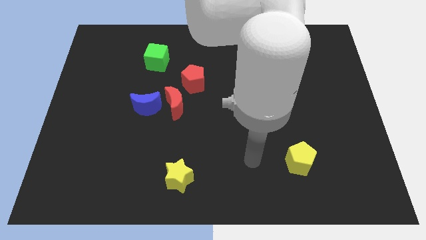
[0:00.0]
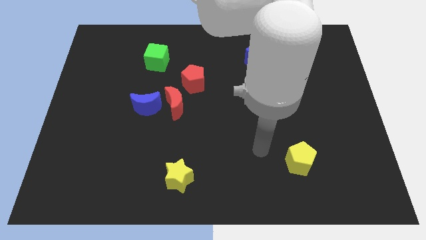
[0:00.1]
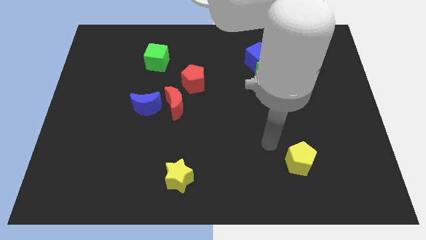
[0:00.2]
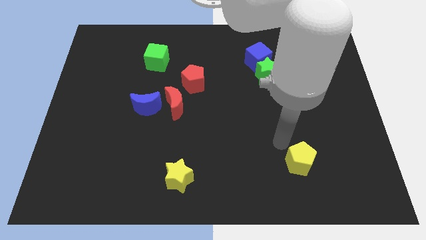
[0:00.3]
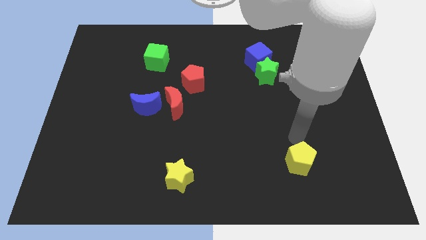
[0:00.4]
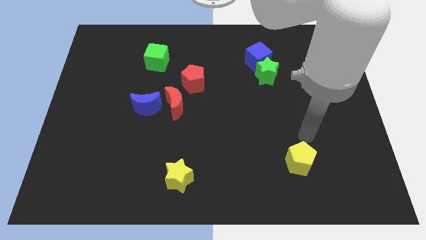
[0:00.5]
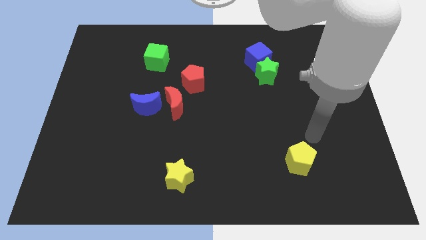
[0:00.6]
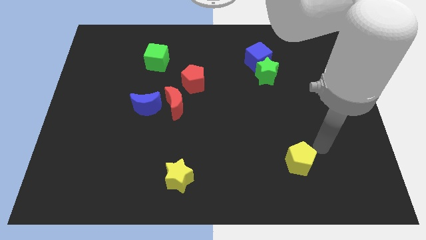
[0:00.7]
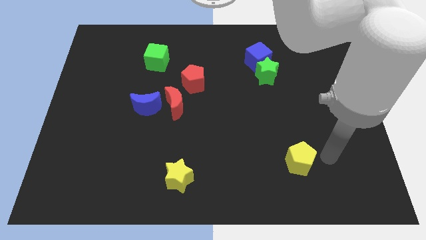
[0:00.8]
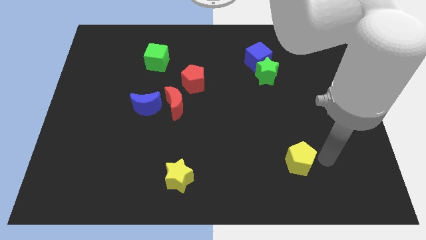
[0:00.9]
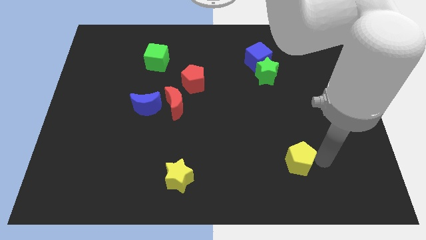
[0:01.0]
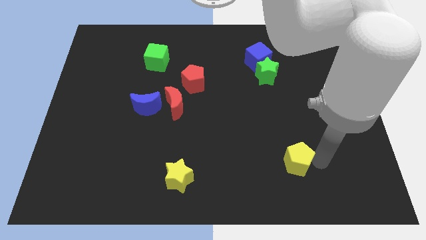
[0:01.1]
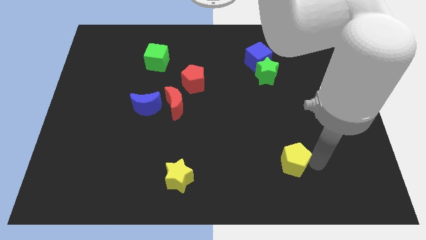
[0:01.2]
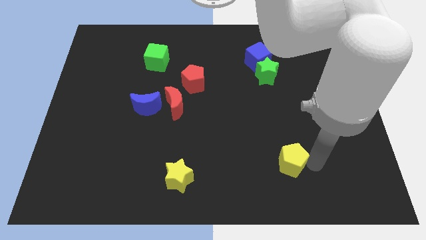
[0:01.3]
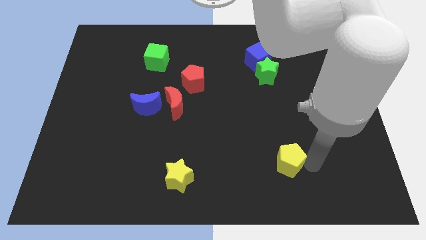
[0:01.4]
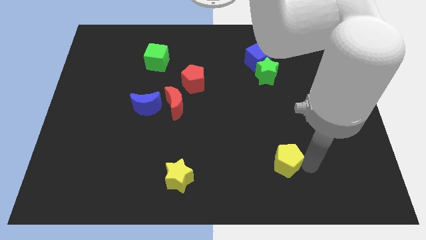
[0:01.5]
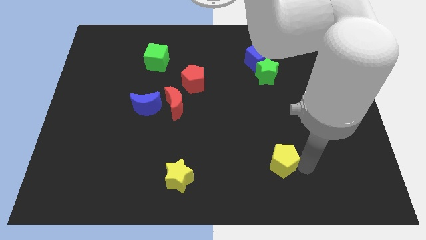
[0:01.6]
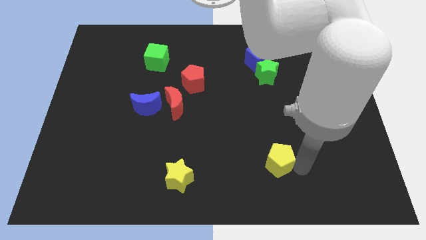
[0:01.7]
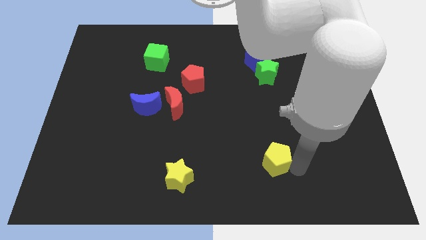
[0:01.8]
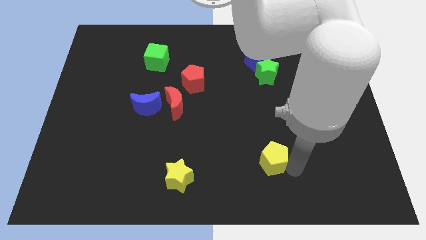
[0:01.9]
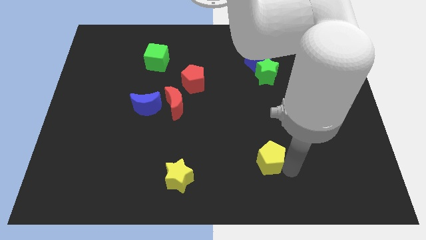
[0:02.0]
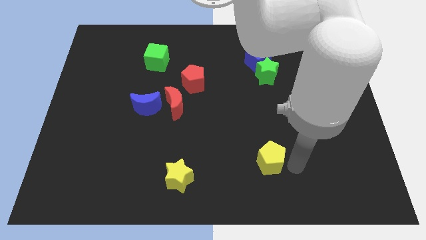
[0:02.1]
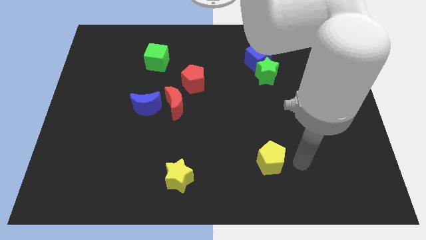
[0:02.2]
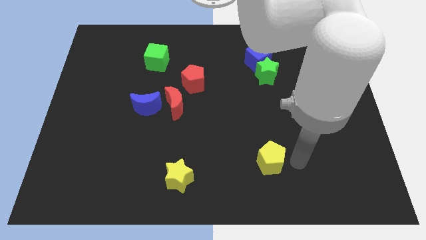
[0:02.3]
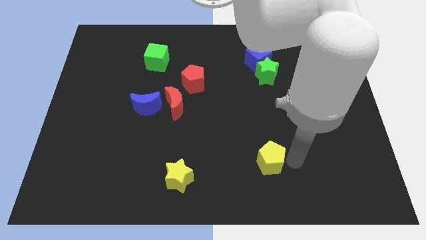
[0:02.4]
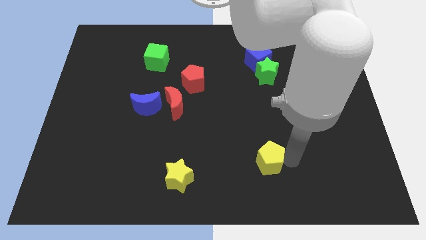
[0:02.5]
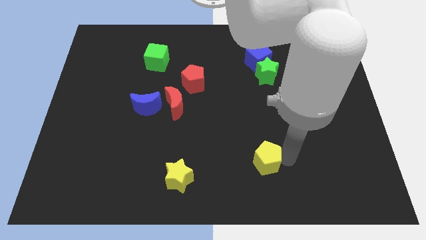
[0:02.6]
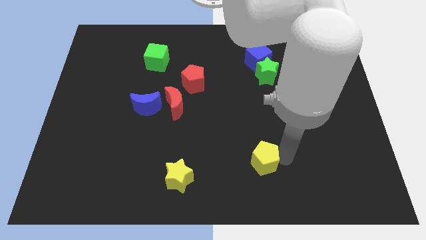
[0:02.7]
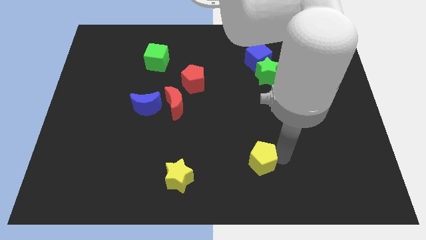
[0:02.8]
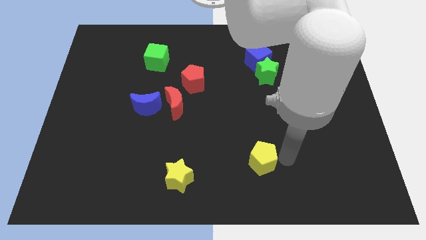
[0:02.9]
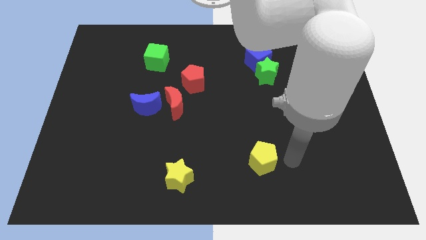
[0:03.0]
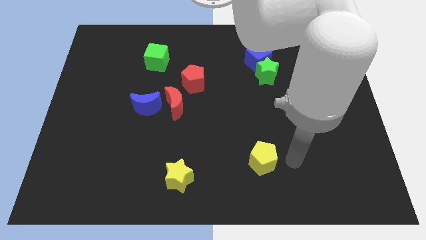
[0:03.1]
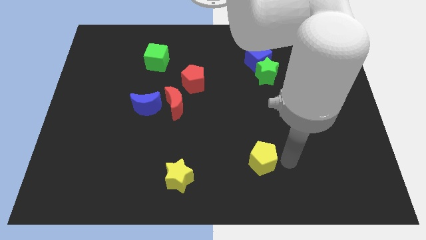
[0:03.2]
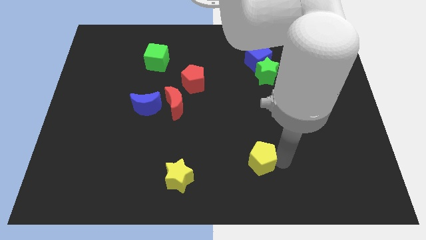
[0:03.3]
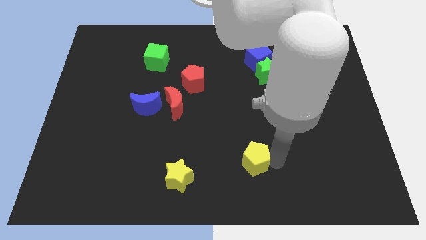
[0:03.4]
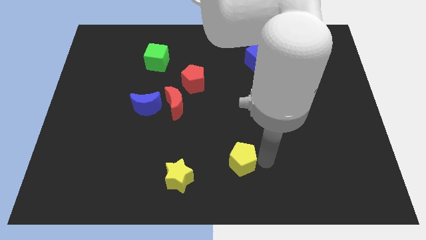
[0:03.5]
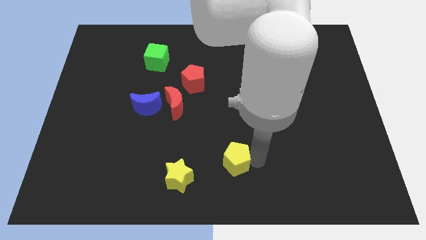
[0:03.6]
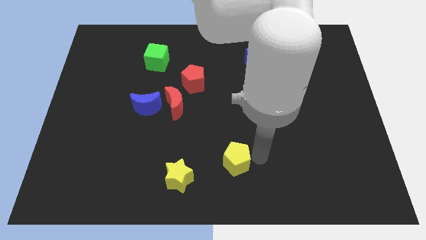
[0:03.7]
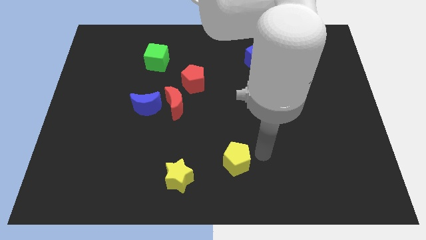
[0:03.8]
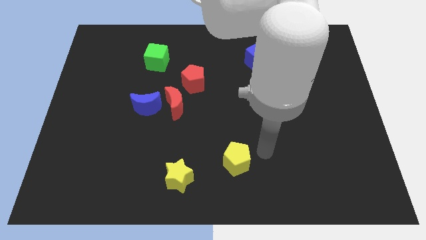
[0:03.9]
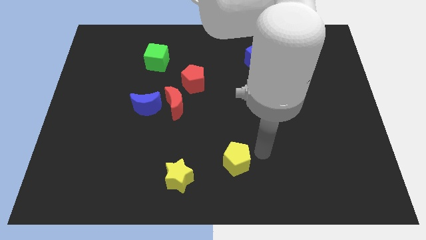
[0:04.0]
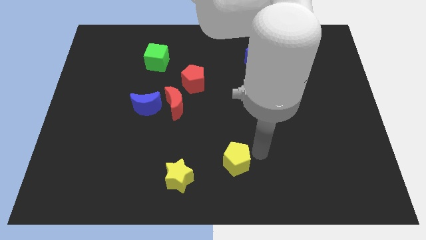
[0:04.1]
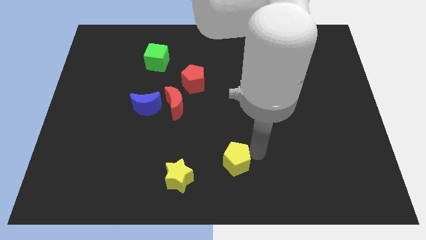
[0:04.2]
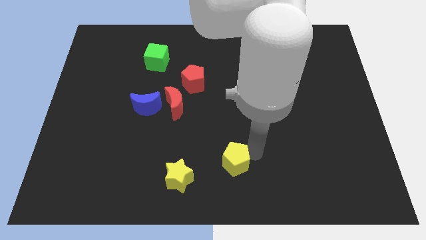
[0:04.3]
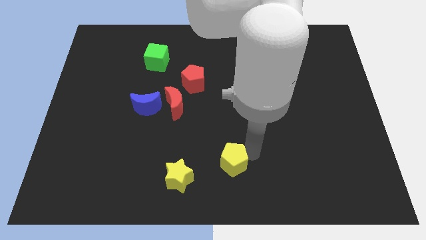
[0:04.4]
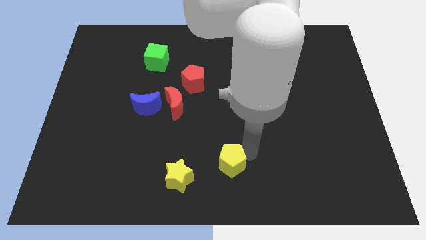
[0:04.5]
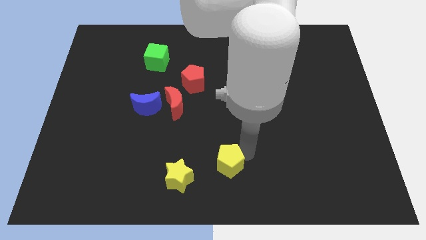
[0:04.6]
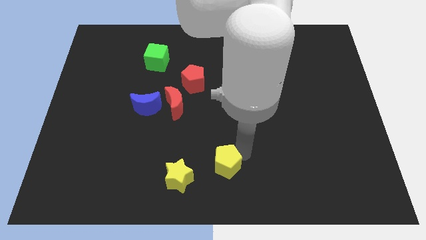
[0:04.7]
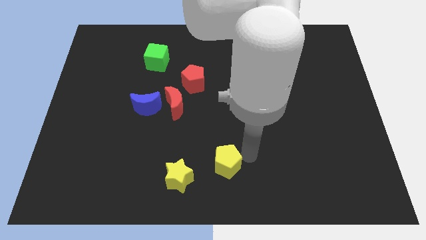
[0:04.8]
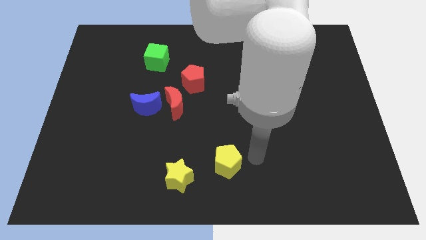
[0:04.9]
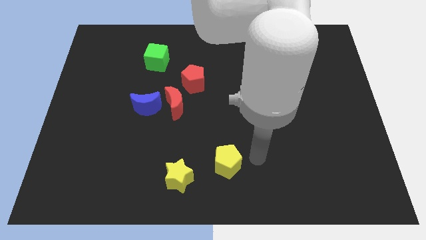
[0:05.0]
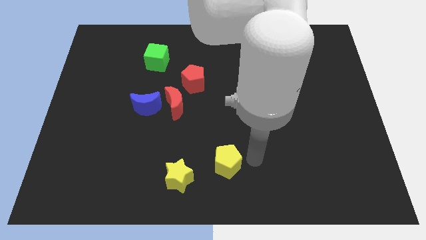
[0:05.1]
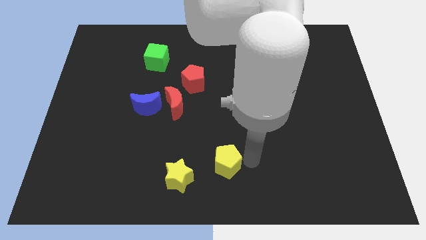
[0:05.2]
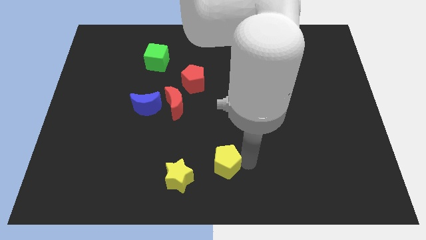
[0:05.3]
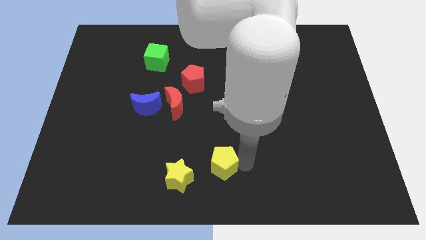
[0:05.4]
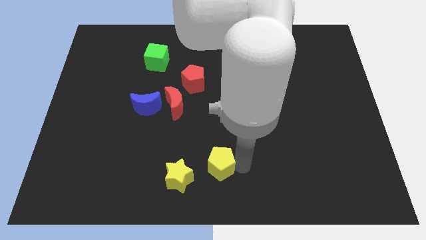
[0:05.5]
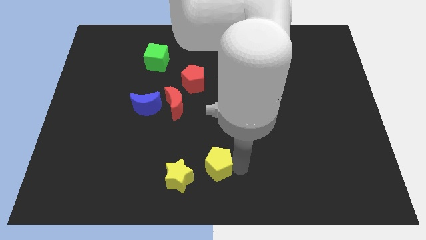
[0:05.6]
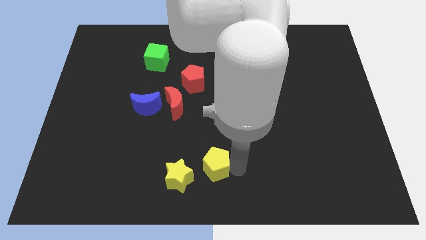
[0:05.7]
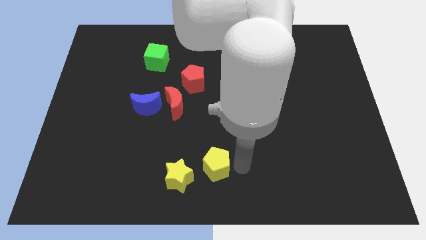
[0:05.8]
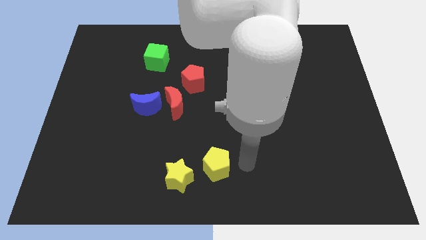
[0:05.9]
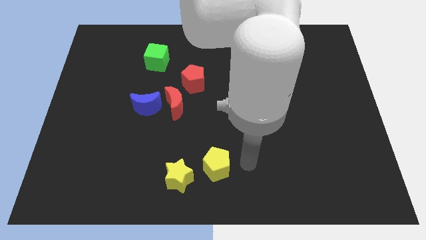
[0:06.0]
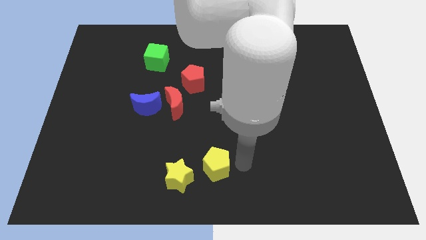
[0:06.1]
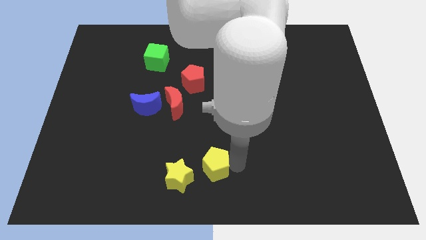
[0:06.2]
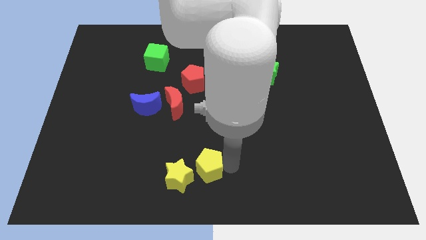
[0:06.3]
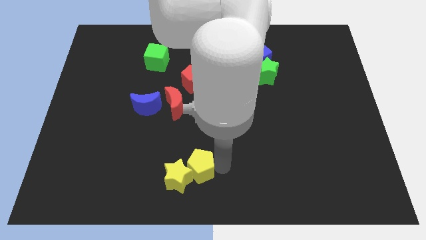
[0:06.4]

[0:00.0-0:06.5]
move the yellow pentagon next to the yellow star

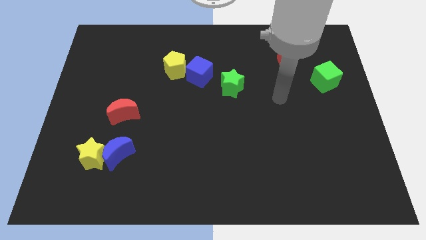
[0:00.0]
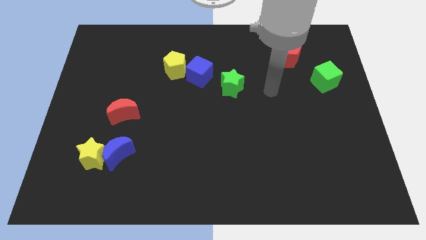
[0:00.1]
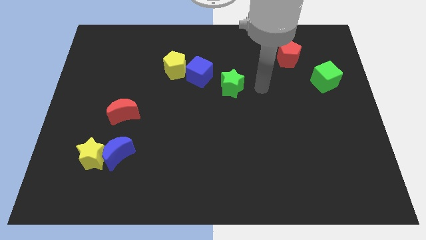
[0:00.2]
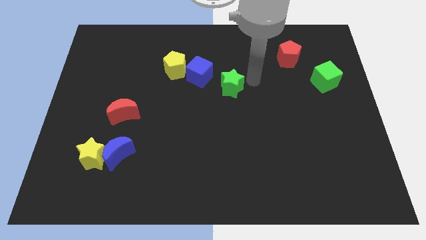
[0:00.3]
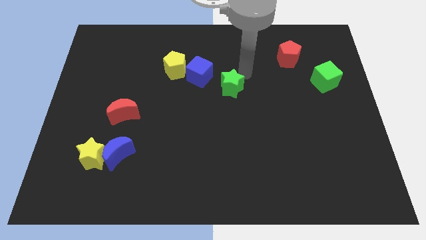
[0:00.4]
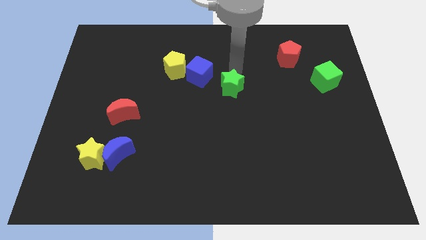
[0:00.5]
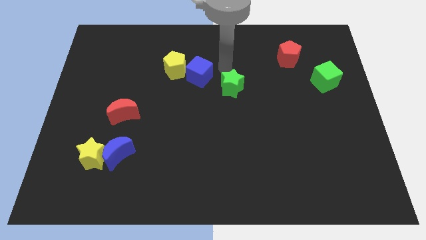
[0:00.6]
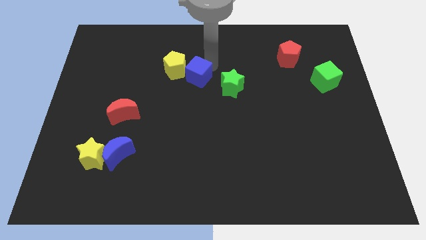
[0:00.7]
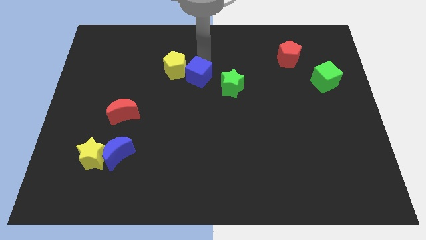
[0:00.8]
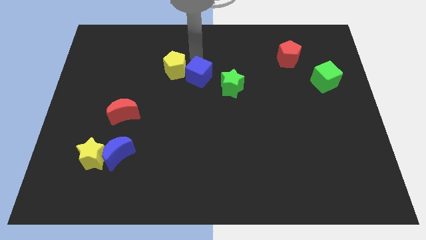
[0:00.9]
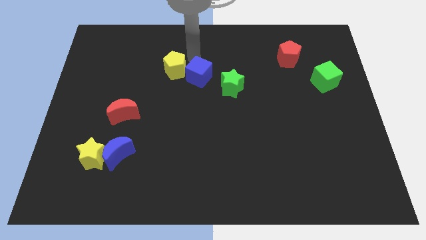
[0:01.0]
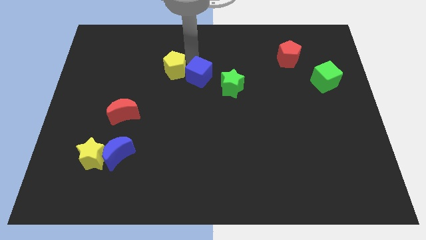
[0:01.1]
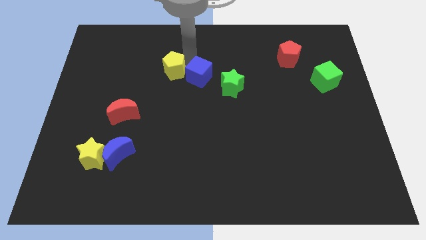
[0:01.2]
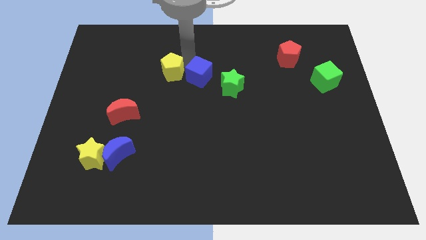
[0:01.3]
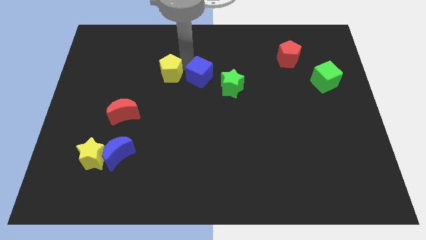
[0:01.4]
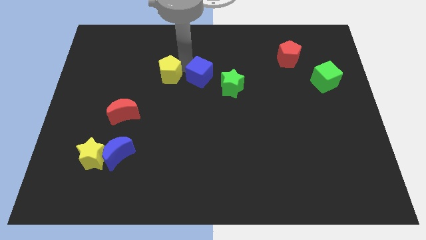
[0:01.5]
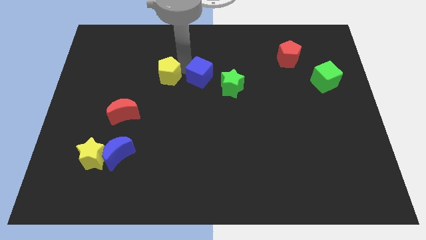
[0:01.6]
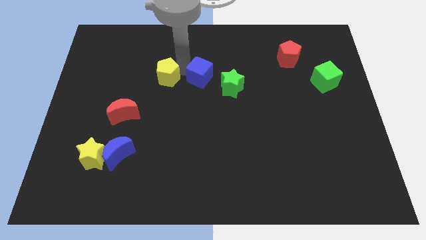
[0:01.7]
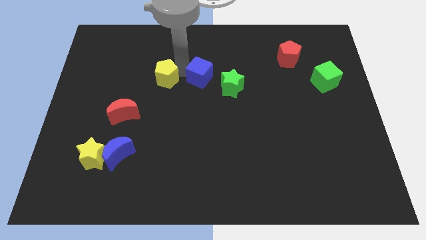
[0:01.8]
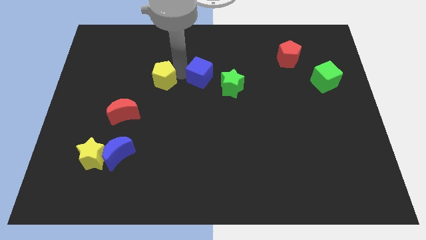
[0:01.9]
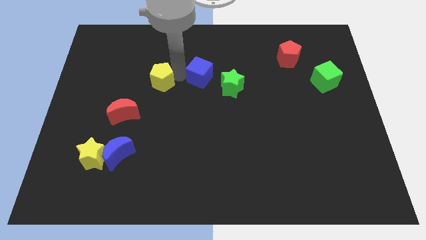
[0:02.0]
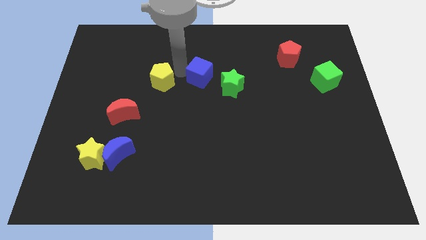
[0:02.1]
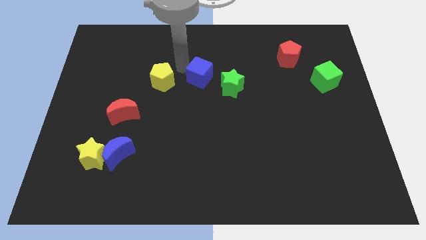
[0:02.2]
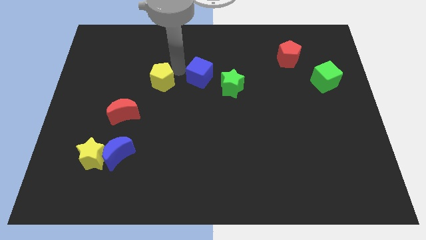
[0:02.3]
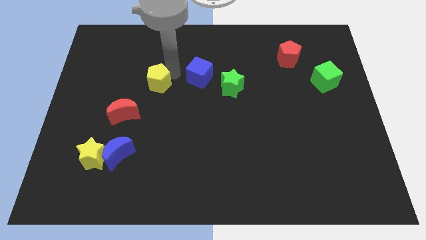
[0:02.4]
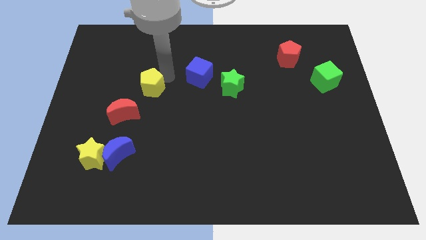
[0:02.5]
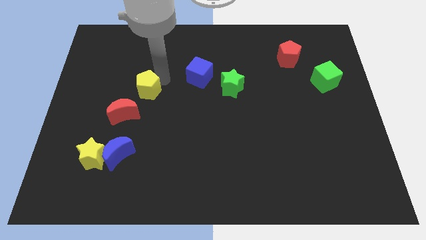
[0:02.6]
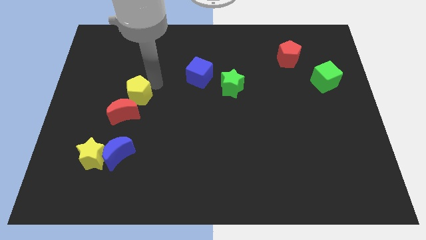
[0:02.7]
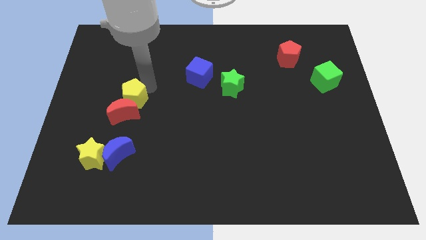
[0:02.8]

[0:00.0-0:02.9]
push the yellow pentagon next to the red moon
